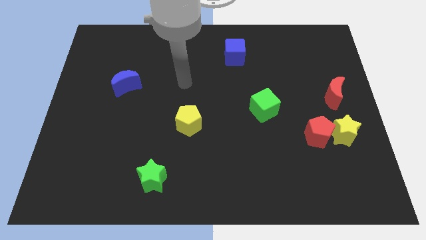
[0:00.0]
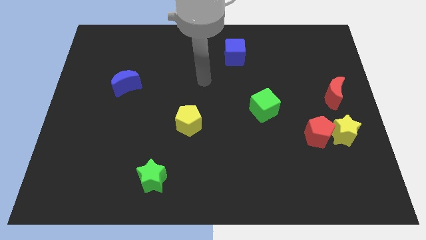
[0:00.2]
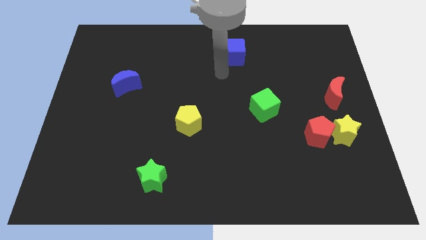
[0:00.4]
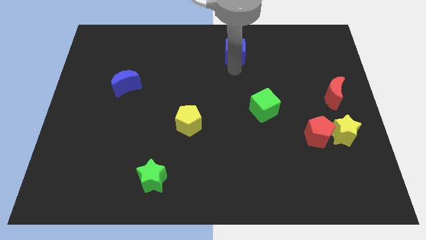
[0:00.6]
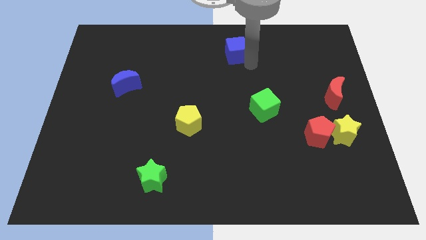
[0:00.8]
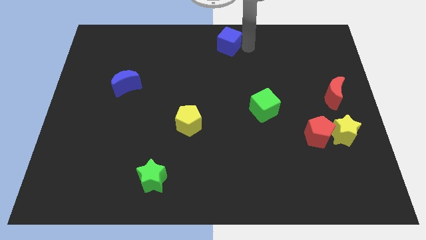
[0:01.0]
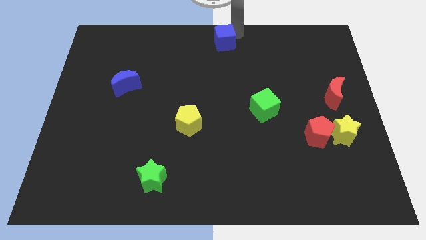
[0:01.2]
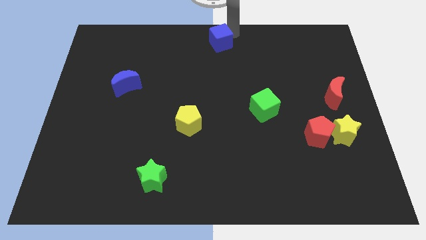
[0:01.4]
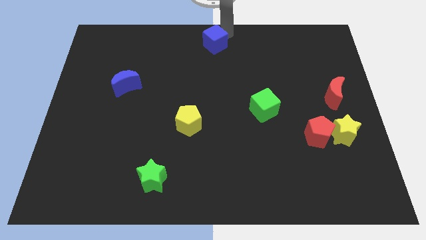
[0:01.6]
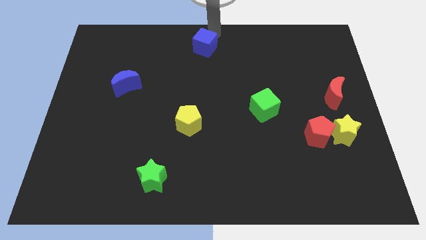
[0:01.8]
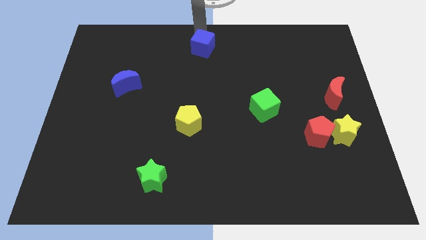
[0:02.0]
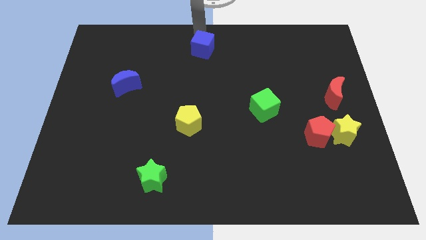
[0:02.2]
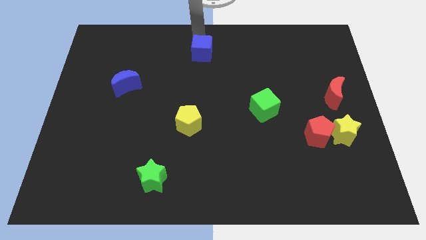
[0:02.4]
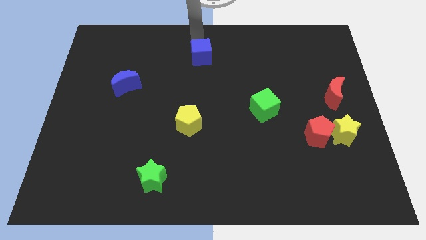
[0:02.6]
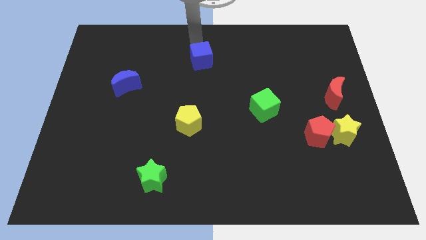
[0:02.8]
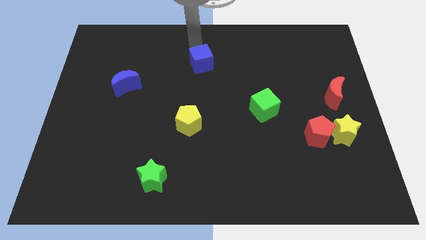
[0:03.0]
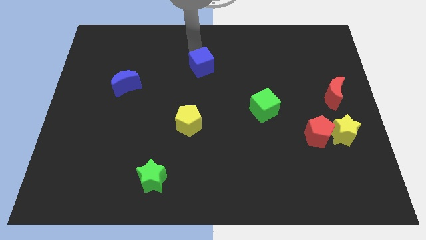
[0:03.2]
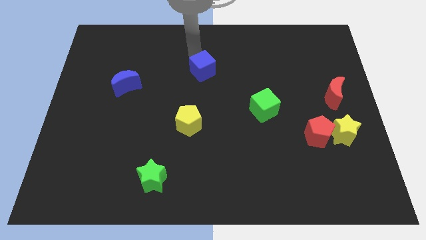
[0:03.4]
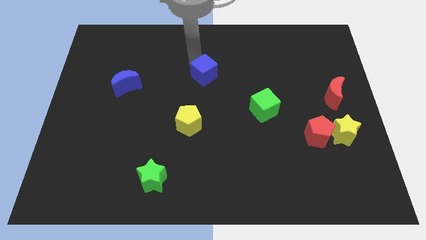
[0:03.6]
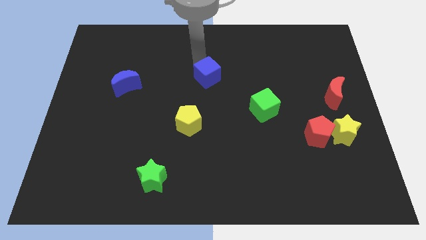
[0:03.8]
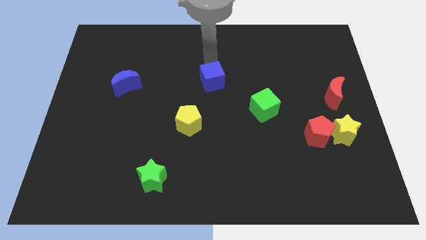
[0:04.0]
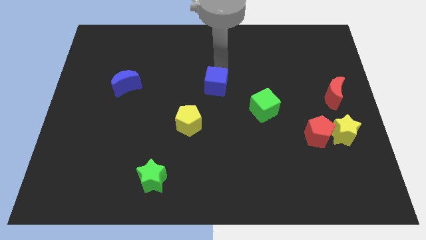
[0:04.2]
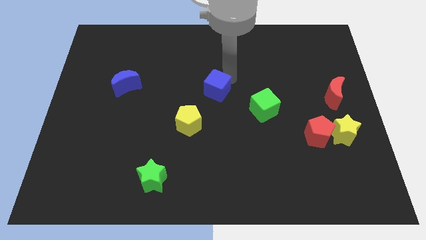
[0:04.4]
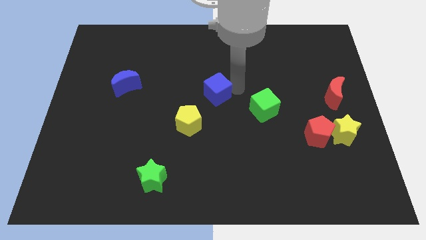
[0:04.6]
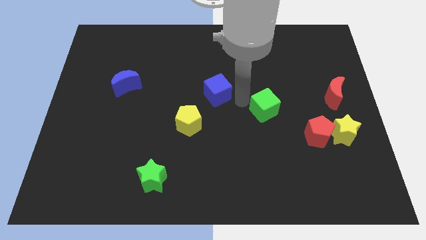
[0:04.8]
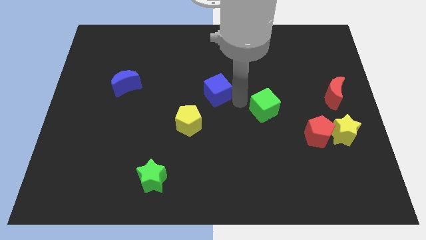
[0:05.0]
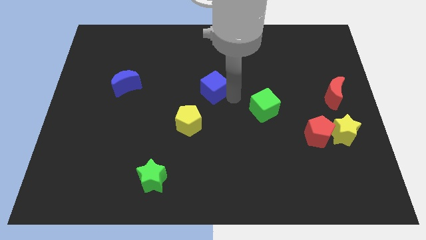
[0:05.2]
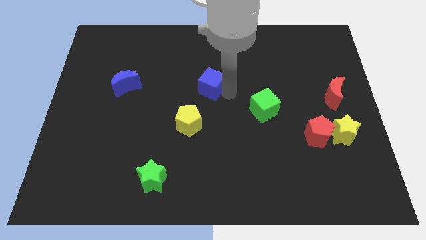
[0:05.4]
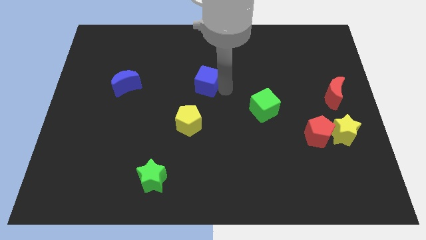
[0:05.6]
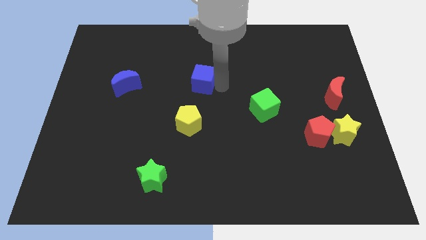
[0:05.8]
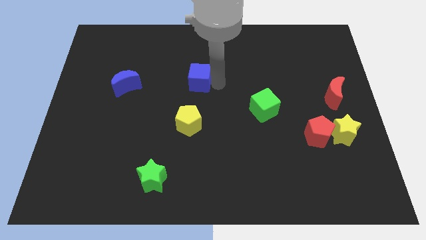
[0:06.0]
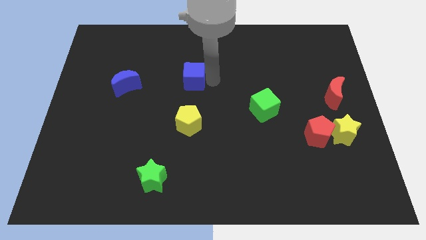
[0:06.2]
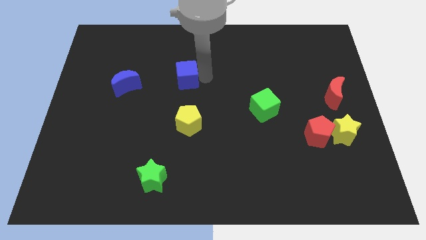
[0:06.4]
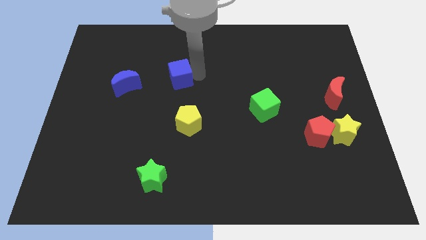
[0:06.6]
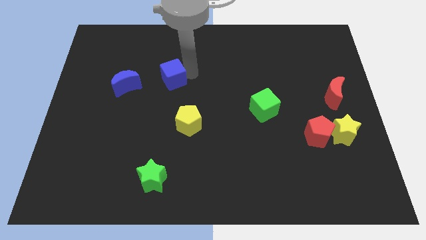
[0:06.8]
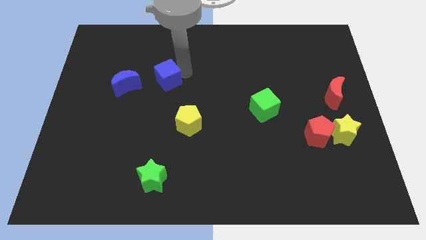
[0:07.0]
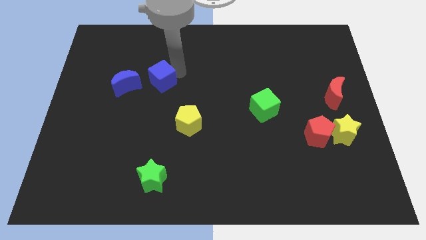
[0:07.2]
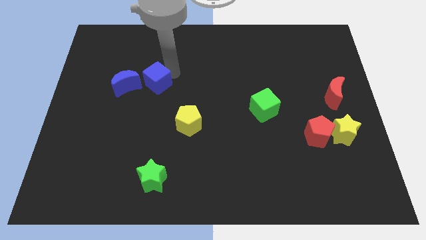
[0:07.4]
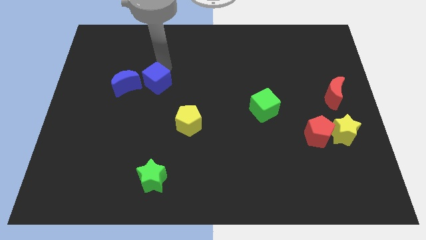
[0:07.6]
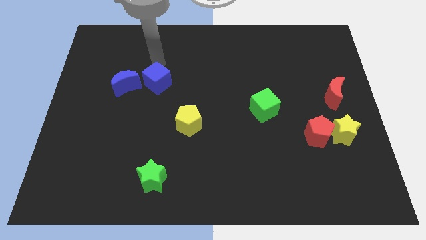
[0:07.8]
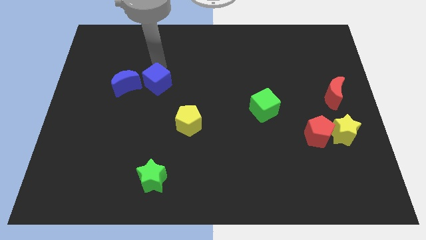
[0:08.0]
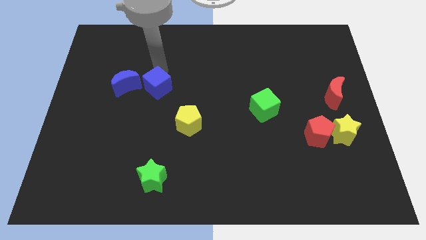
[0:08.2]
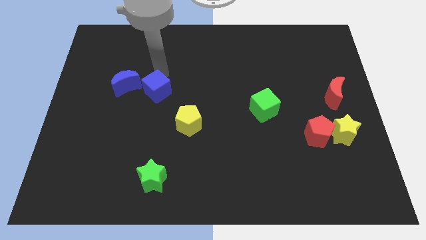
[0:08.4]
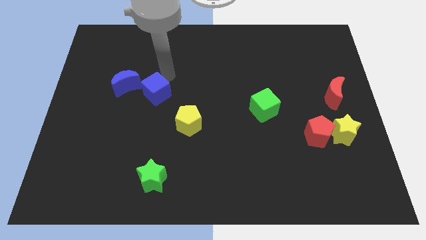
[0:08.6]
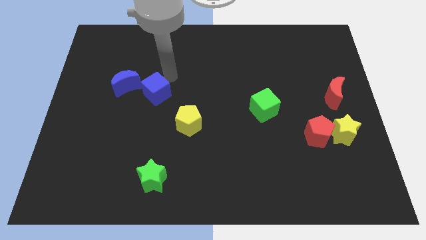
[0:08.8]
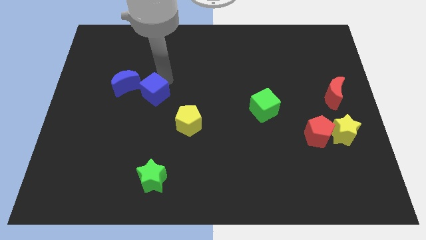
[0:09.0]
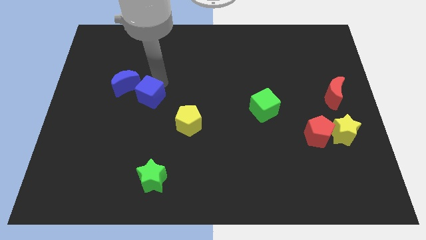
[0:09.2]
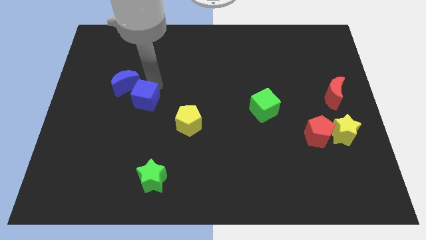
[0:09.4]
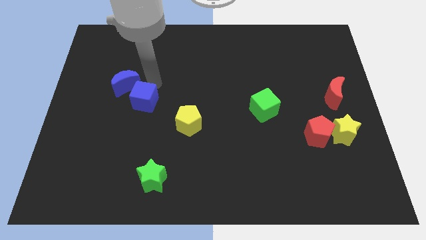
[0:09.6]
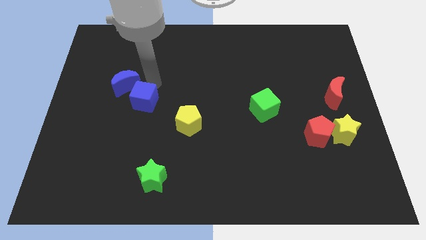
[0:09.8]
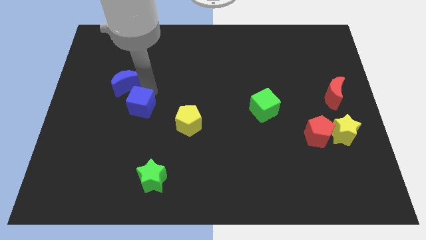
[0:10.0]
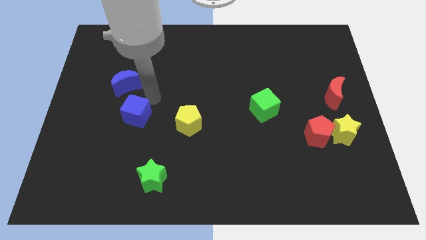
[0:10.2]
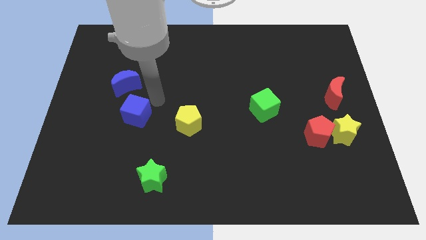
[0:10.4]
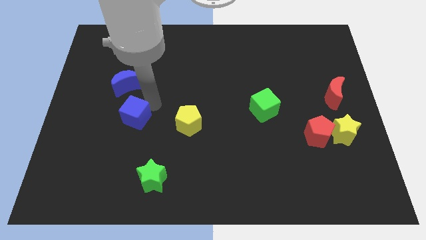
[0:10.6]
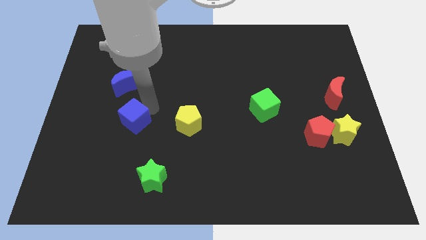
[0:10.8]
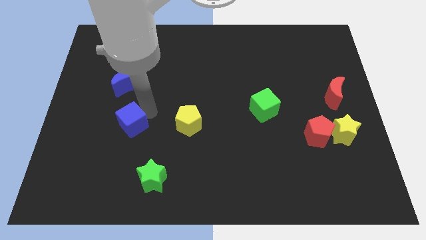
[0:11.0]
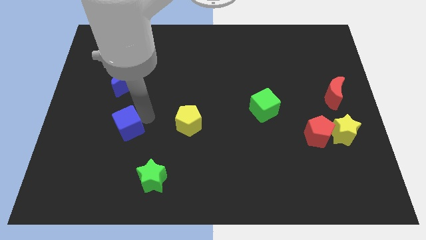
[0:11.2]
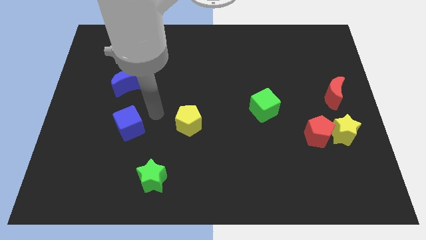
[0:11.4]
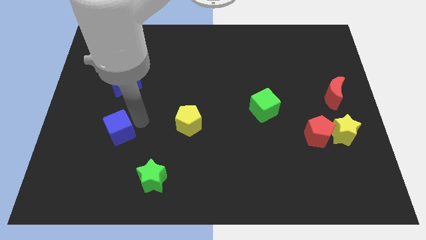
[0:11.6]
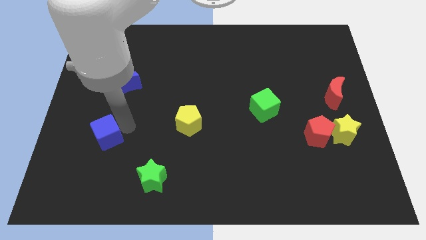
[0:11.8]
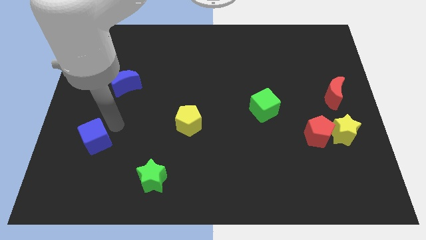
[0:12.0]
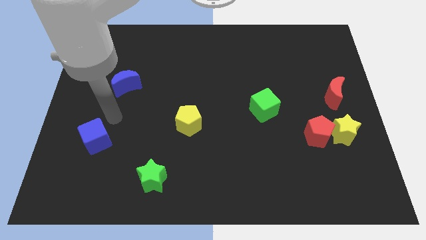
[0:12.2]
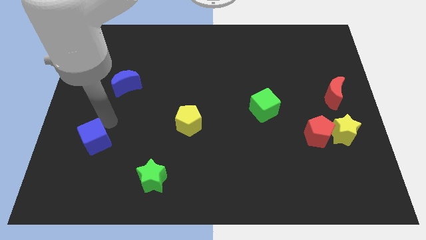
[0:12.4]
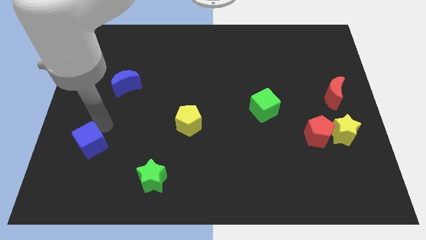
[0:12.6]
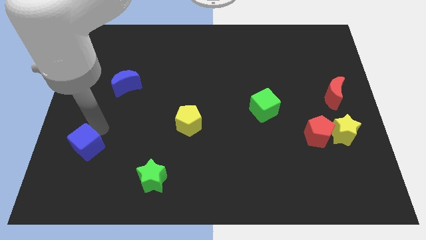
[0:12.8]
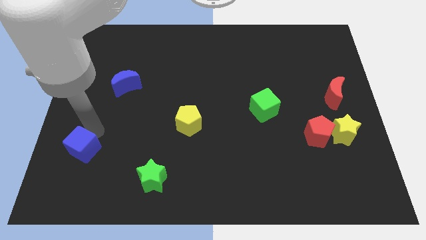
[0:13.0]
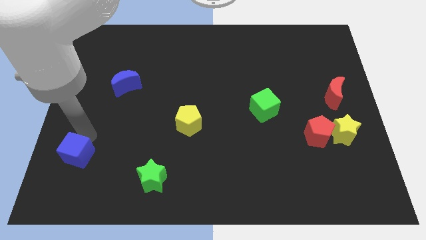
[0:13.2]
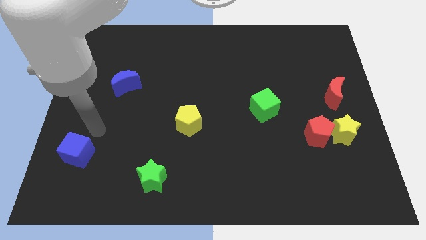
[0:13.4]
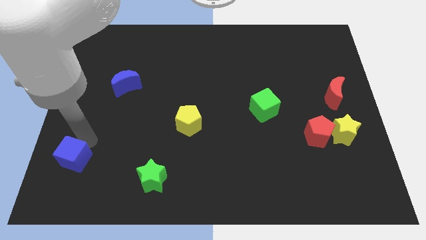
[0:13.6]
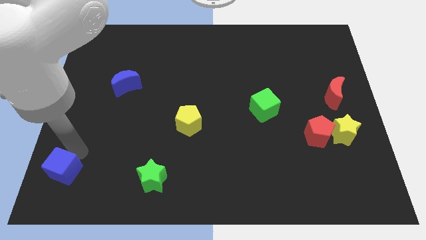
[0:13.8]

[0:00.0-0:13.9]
put the blue cube to the bottom left corner
